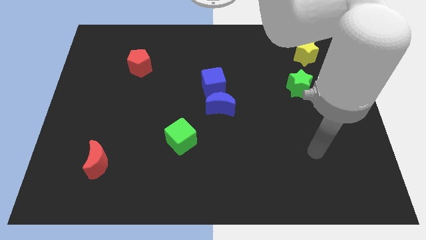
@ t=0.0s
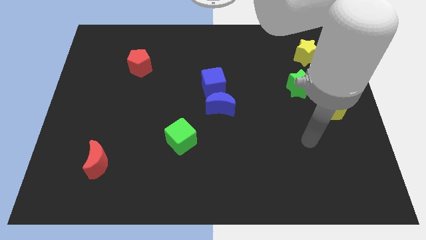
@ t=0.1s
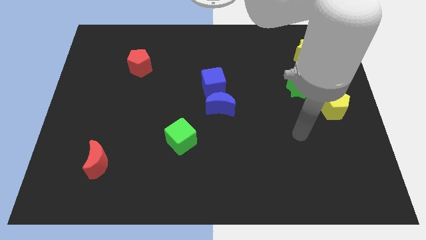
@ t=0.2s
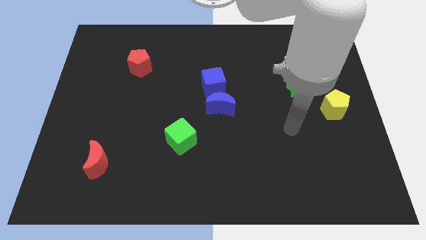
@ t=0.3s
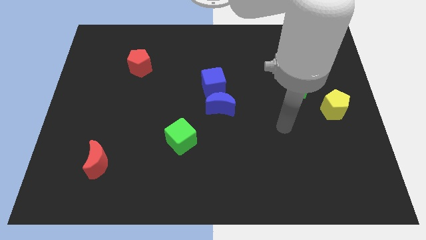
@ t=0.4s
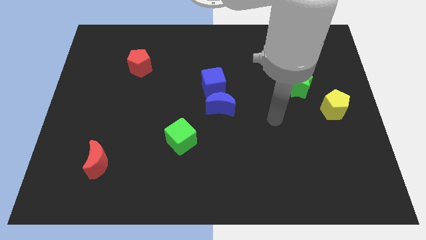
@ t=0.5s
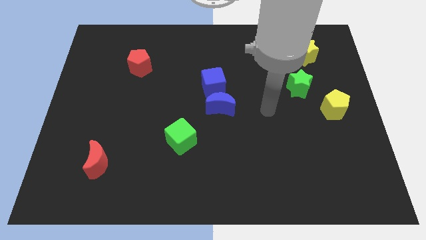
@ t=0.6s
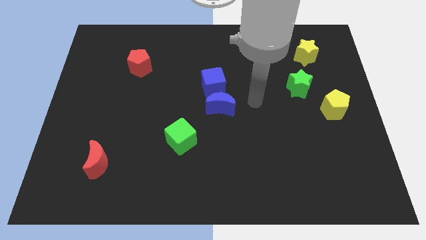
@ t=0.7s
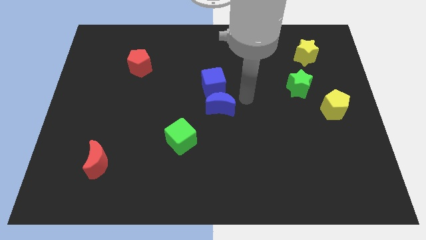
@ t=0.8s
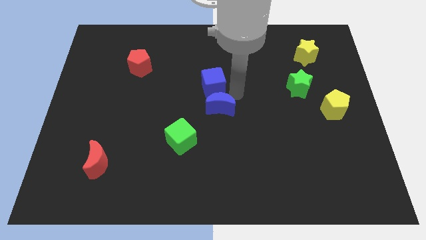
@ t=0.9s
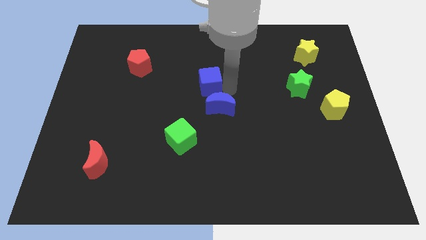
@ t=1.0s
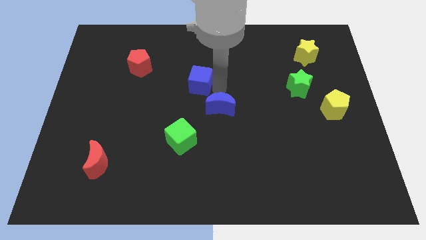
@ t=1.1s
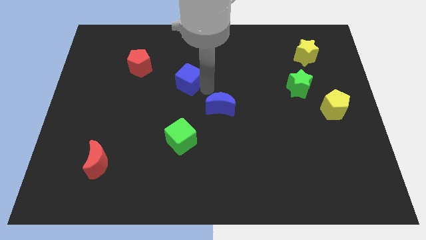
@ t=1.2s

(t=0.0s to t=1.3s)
move the blue moon away from the blue cube

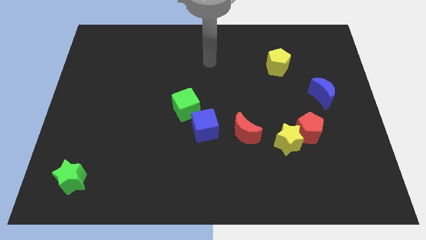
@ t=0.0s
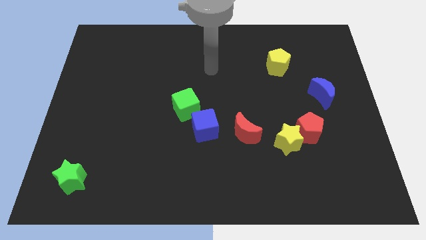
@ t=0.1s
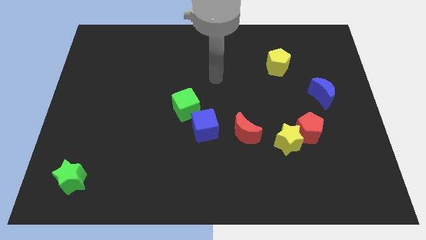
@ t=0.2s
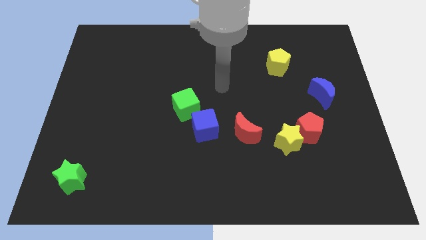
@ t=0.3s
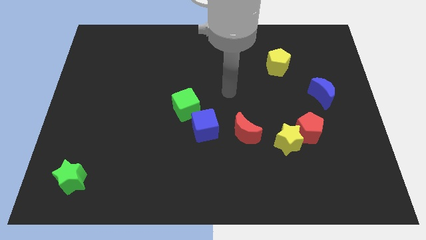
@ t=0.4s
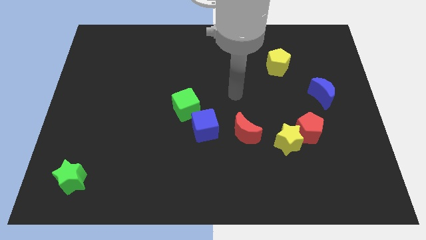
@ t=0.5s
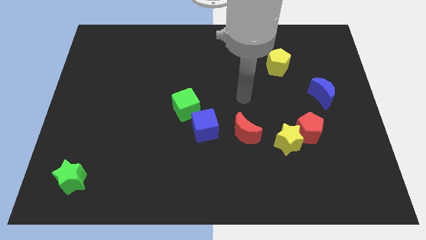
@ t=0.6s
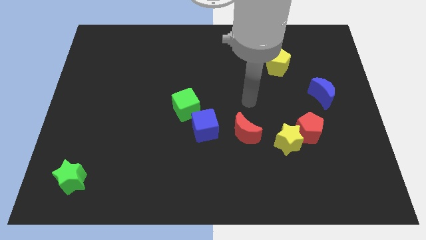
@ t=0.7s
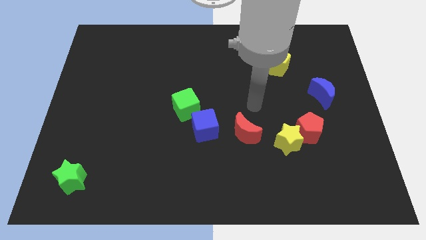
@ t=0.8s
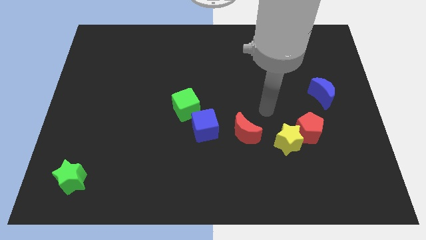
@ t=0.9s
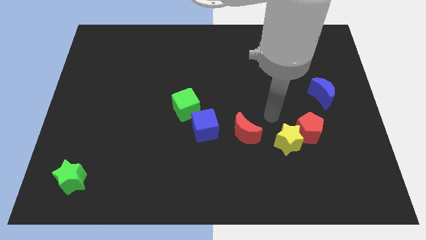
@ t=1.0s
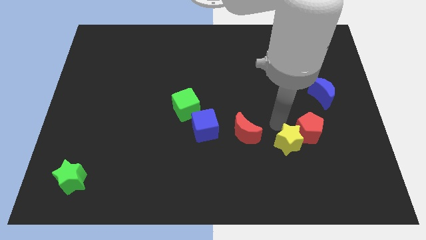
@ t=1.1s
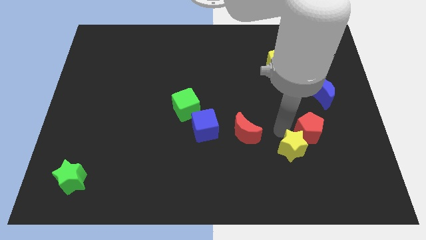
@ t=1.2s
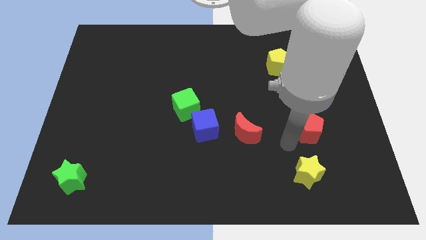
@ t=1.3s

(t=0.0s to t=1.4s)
separate the red pentagon from the yellow star

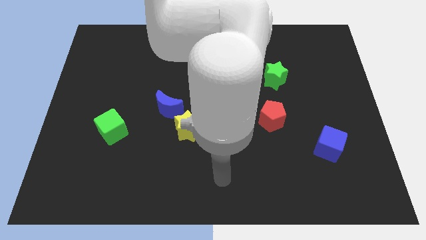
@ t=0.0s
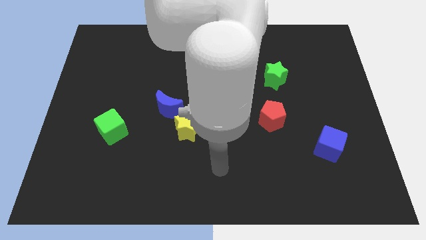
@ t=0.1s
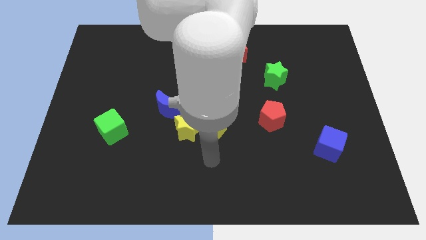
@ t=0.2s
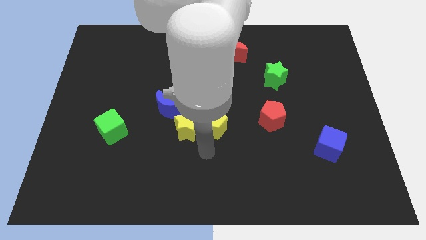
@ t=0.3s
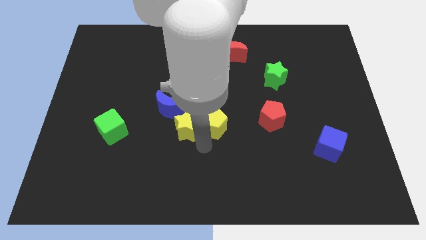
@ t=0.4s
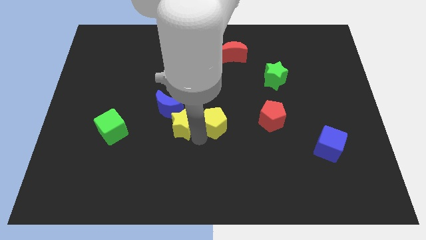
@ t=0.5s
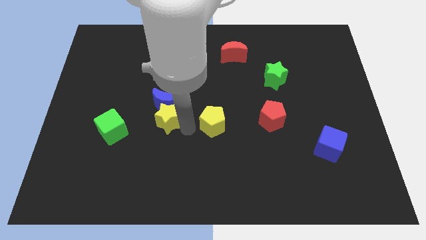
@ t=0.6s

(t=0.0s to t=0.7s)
move the yellow pentagon away from the yellow star

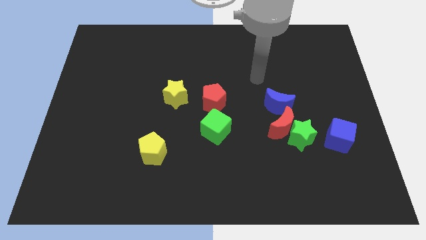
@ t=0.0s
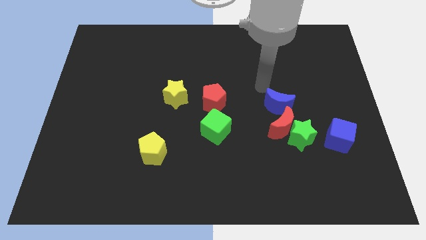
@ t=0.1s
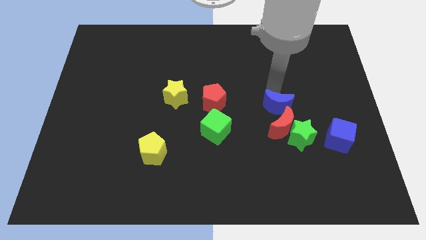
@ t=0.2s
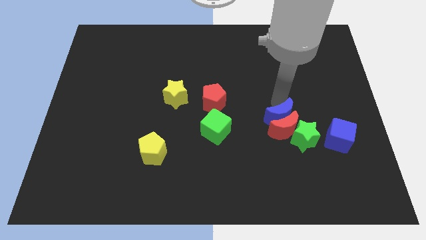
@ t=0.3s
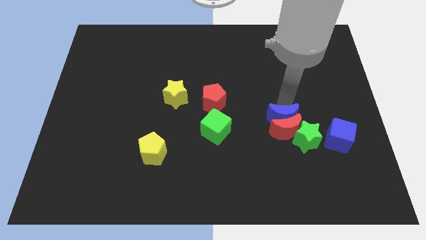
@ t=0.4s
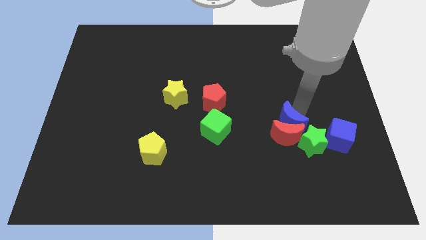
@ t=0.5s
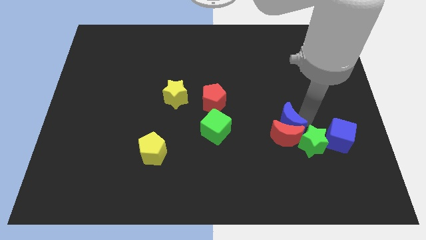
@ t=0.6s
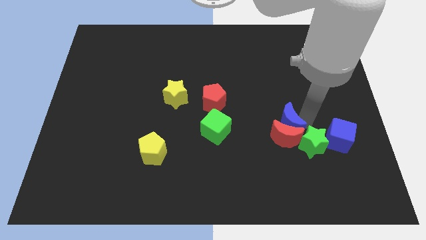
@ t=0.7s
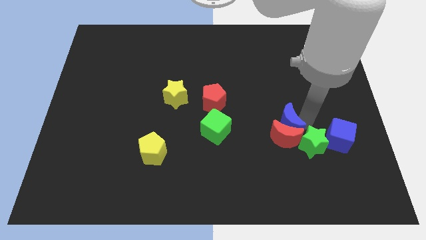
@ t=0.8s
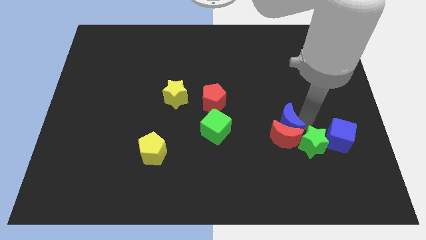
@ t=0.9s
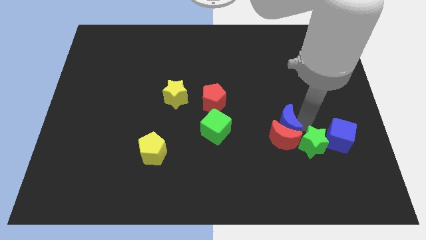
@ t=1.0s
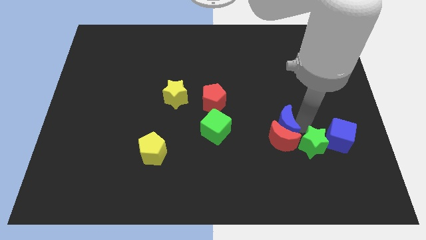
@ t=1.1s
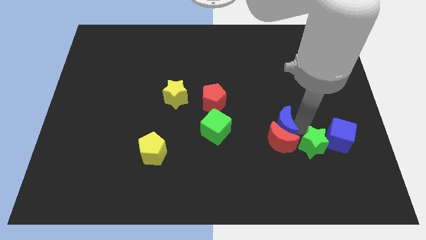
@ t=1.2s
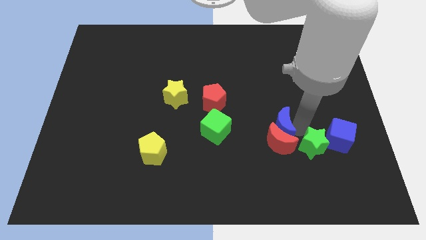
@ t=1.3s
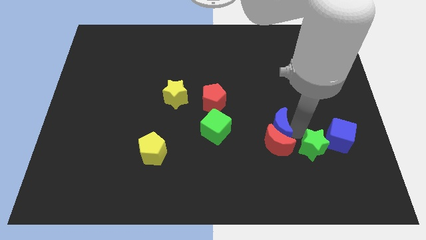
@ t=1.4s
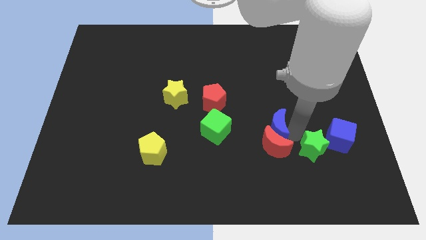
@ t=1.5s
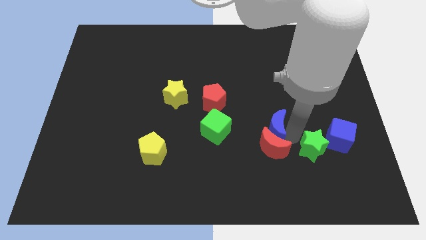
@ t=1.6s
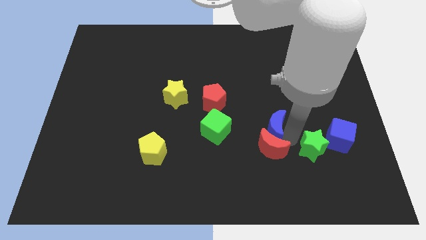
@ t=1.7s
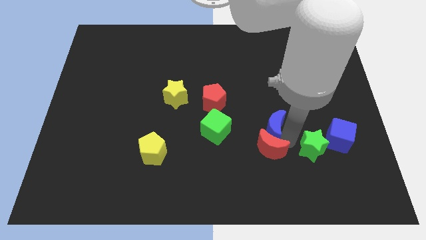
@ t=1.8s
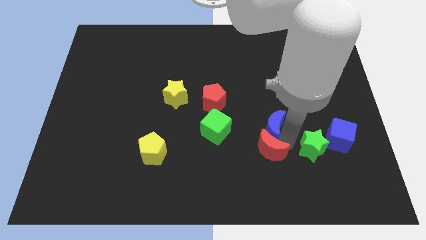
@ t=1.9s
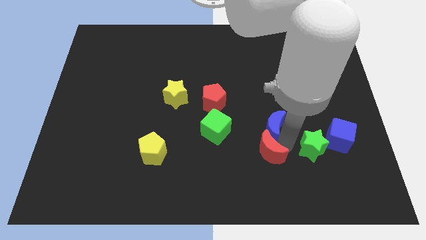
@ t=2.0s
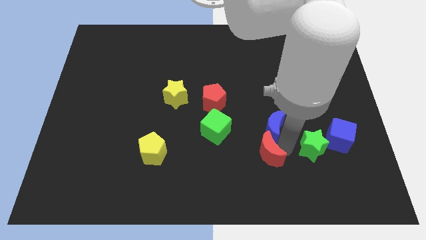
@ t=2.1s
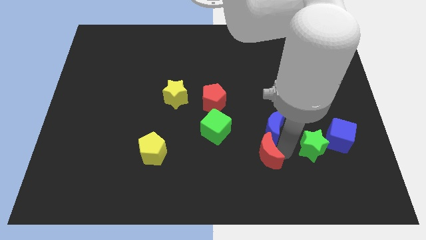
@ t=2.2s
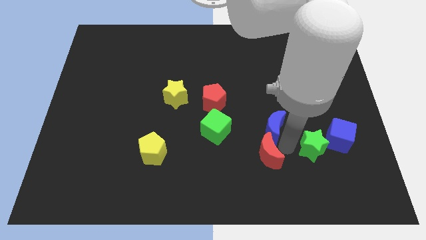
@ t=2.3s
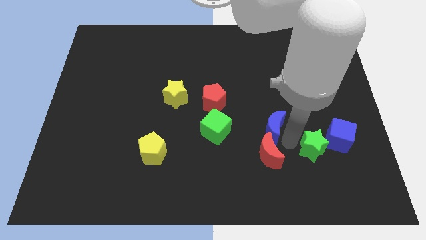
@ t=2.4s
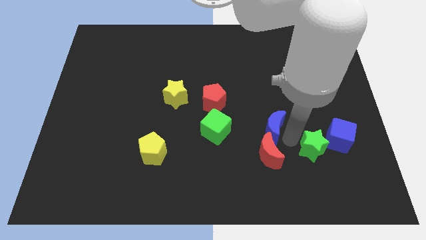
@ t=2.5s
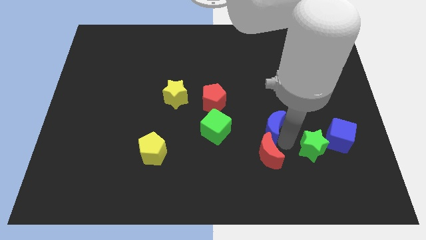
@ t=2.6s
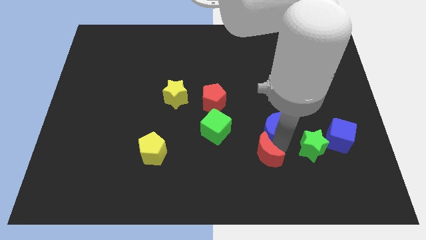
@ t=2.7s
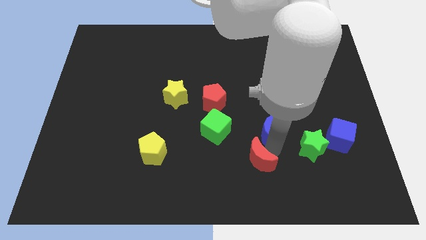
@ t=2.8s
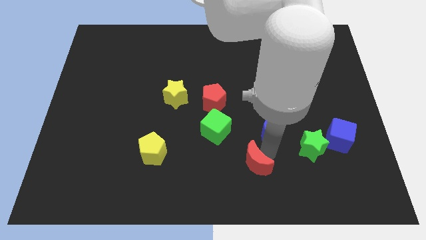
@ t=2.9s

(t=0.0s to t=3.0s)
move the red moon away from the green star and blue moon

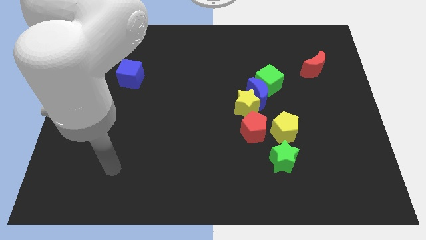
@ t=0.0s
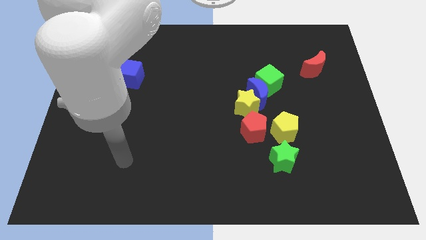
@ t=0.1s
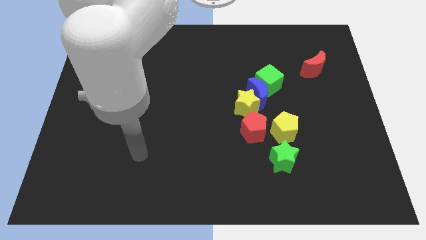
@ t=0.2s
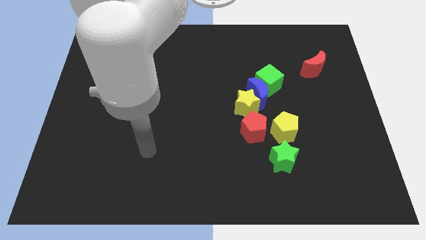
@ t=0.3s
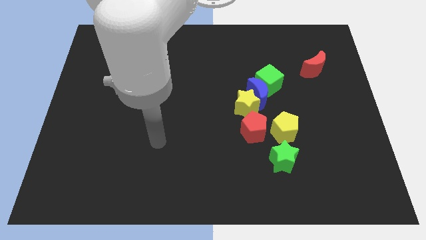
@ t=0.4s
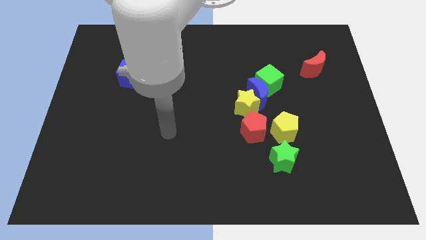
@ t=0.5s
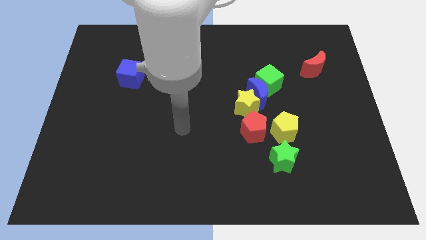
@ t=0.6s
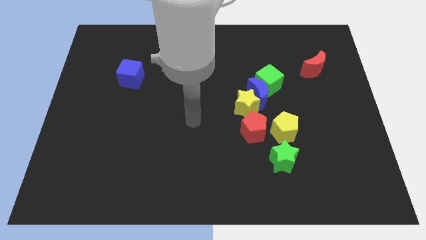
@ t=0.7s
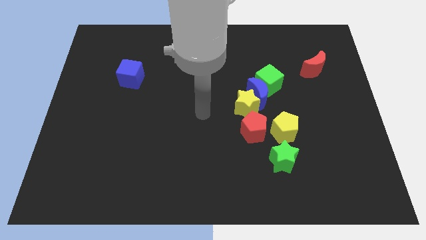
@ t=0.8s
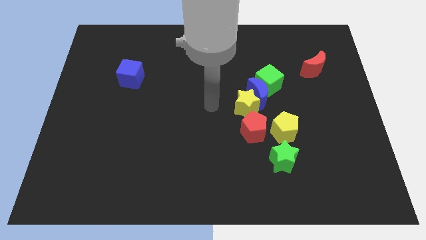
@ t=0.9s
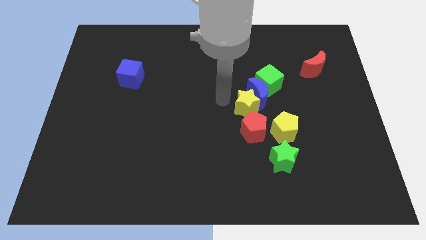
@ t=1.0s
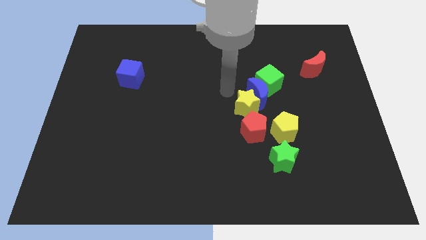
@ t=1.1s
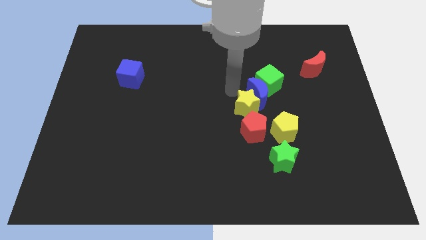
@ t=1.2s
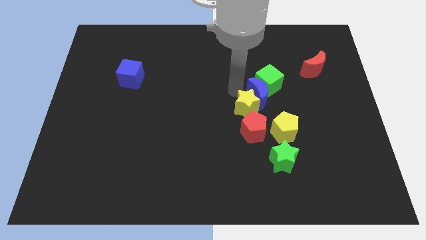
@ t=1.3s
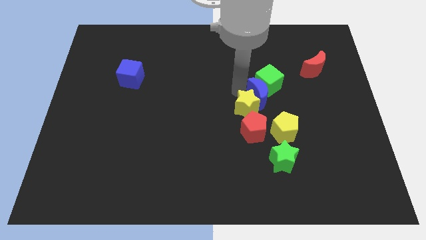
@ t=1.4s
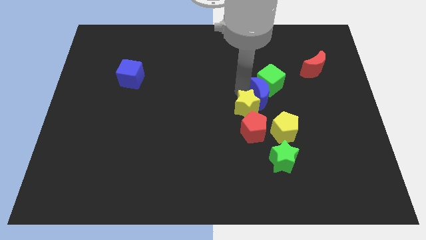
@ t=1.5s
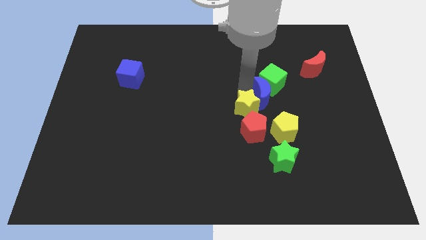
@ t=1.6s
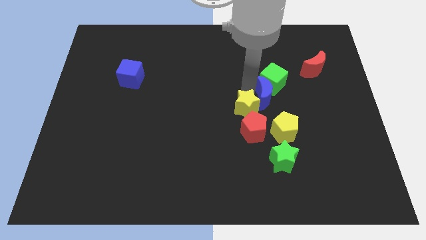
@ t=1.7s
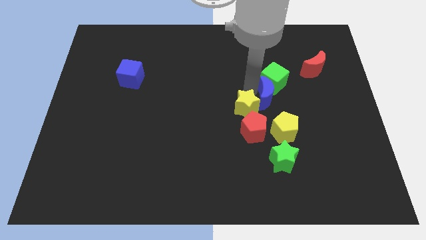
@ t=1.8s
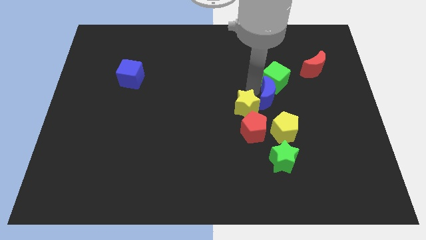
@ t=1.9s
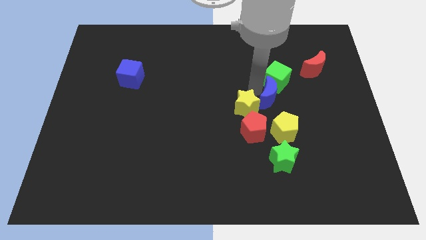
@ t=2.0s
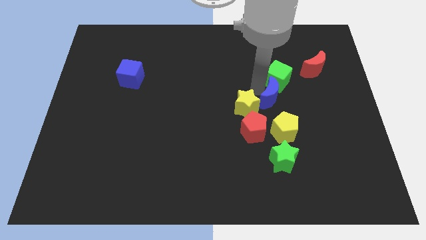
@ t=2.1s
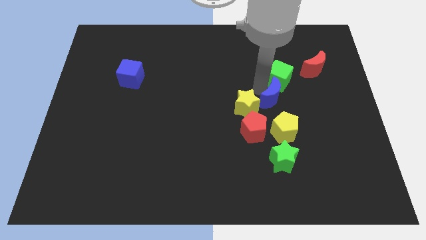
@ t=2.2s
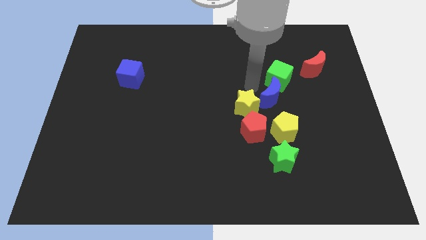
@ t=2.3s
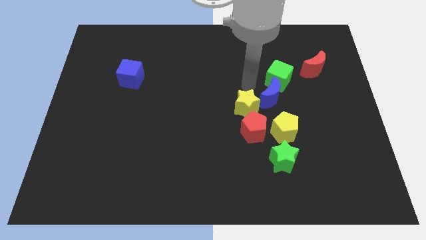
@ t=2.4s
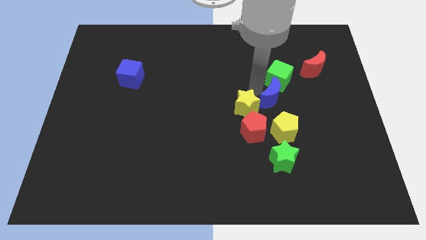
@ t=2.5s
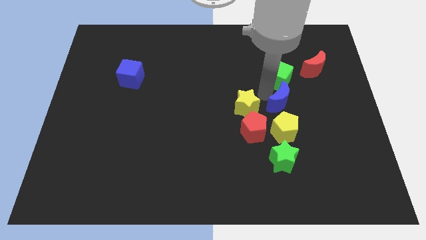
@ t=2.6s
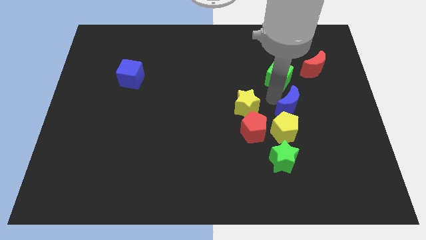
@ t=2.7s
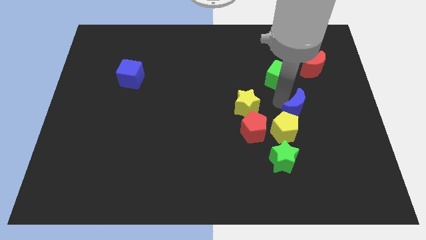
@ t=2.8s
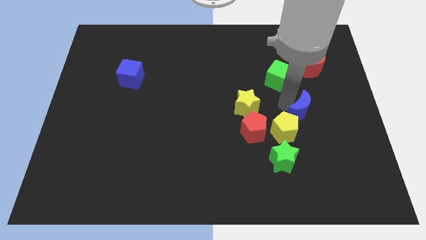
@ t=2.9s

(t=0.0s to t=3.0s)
move the blue moon away from the green cube and yellow star
